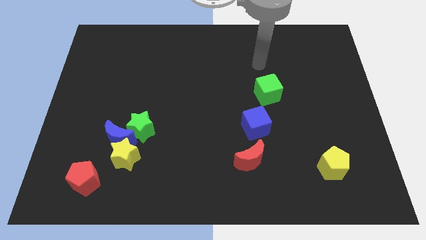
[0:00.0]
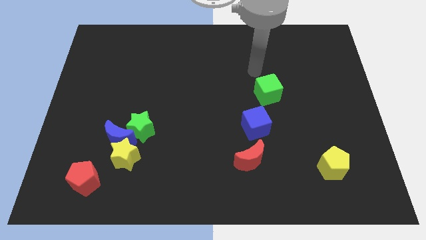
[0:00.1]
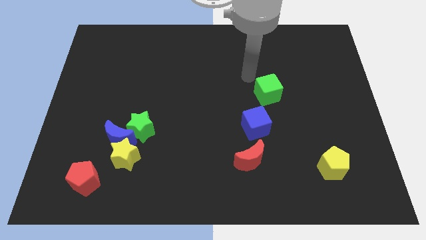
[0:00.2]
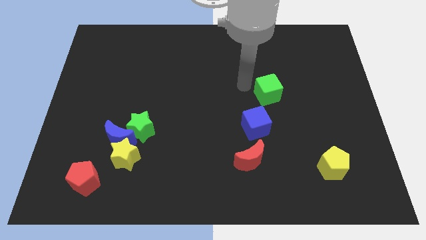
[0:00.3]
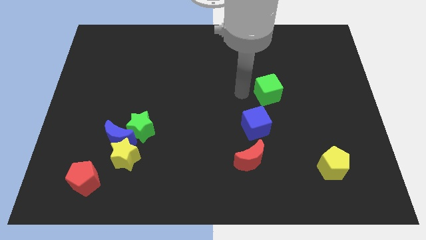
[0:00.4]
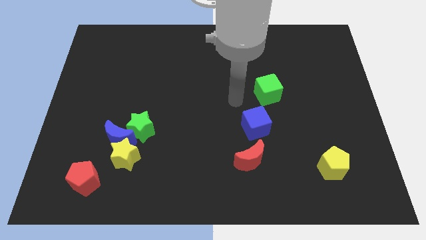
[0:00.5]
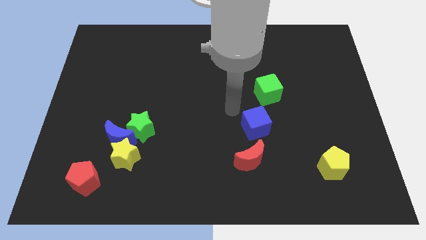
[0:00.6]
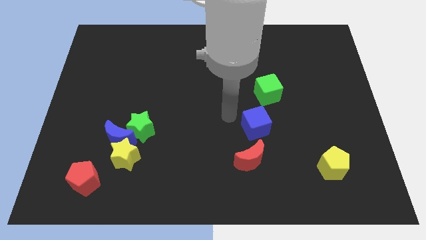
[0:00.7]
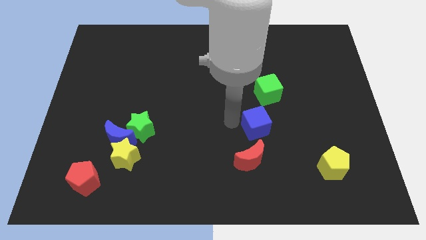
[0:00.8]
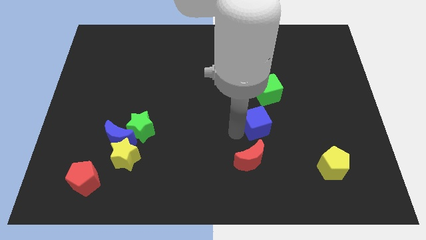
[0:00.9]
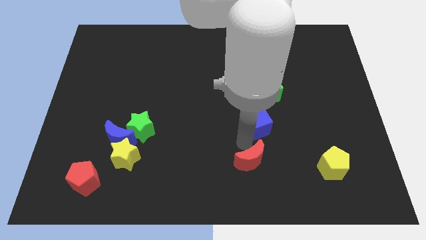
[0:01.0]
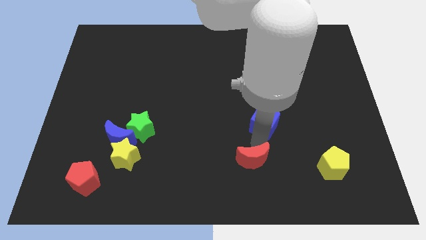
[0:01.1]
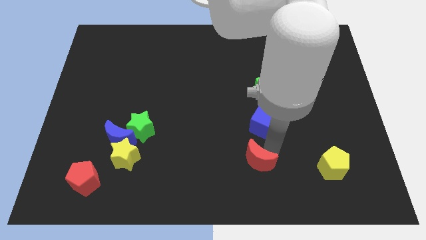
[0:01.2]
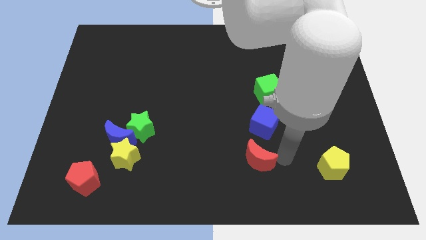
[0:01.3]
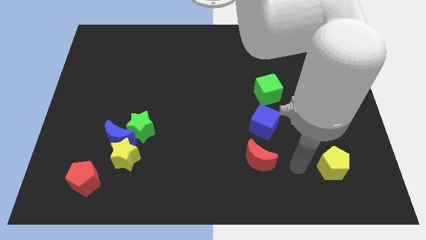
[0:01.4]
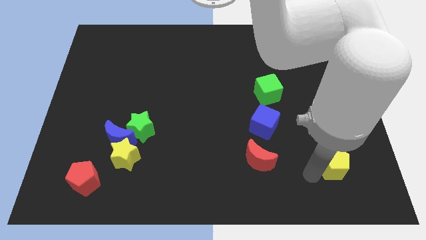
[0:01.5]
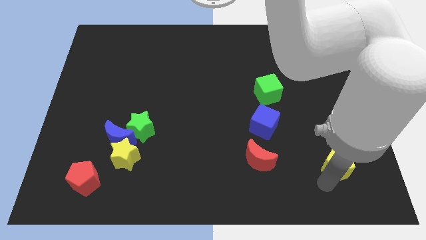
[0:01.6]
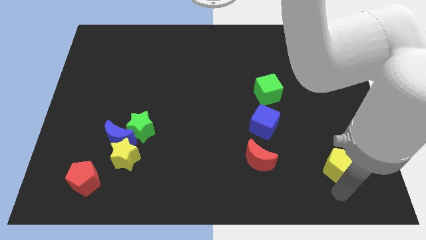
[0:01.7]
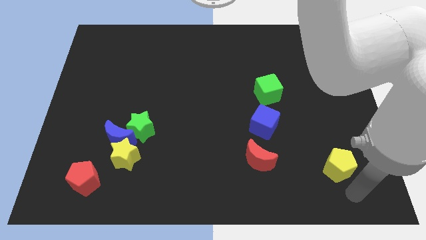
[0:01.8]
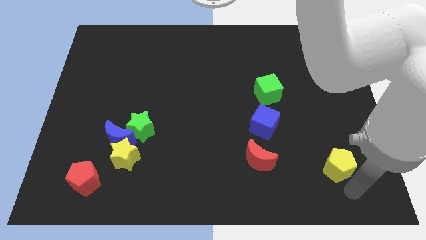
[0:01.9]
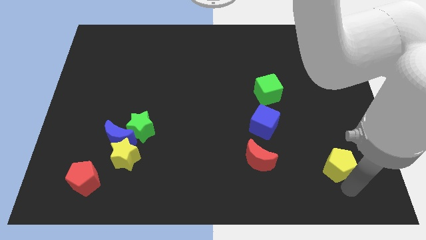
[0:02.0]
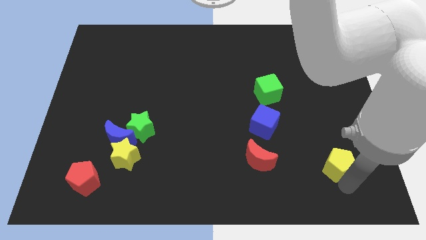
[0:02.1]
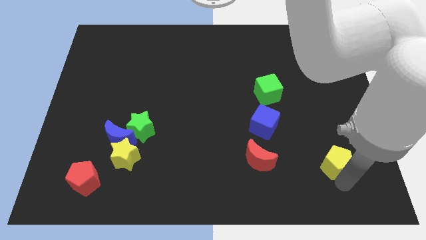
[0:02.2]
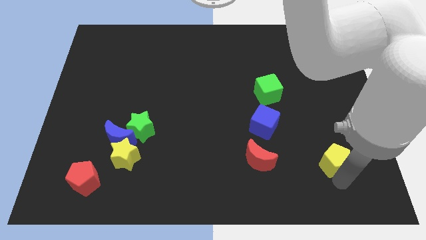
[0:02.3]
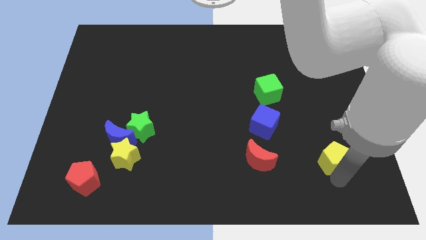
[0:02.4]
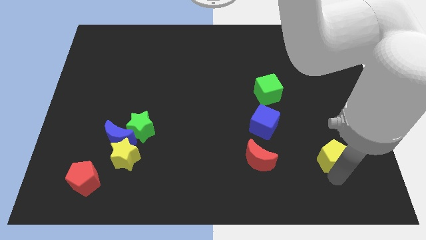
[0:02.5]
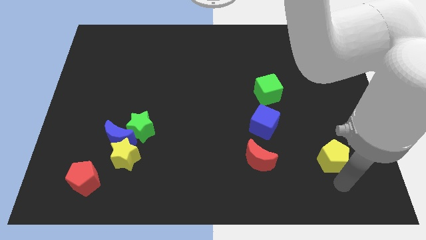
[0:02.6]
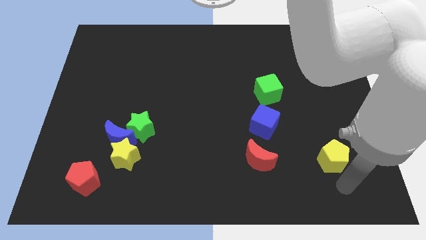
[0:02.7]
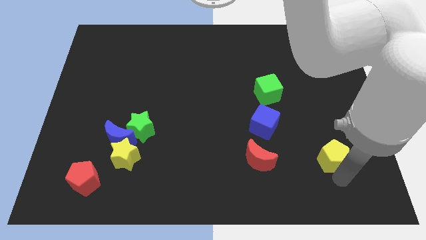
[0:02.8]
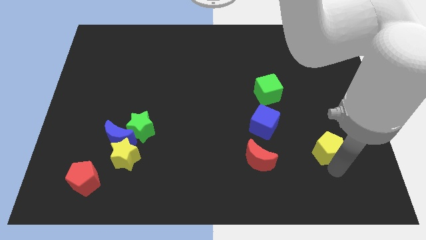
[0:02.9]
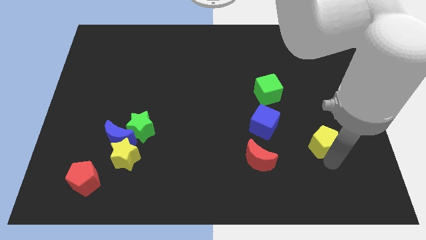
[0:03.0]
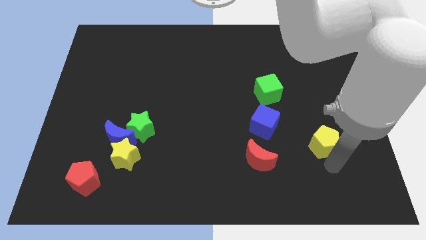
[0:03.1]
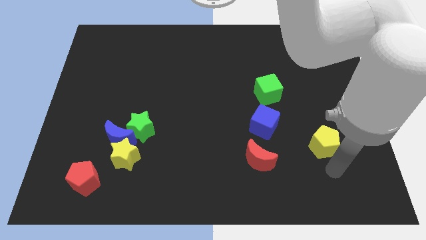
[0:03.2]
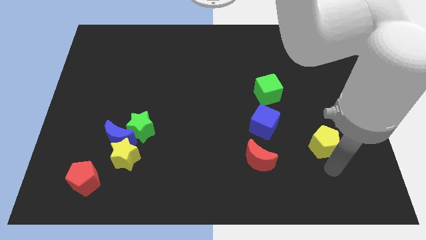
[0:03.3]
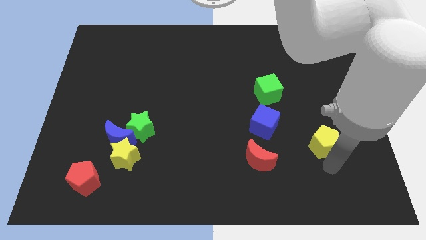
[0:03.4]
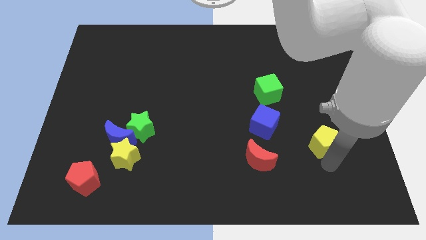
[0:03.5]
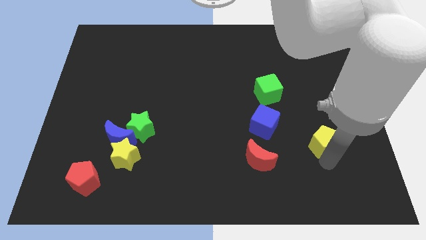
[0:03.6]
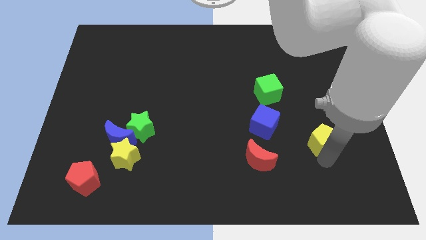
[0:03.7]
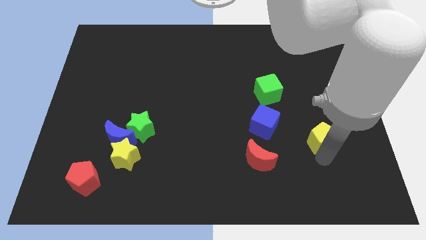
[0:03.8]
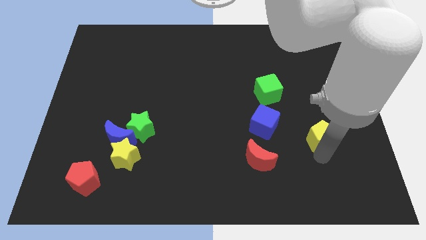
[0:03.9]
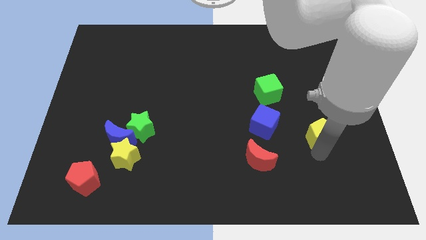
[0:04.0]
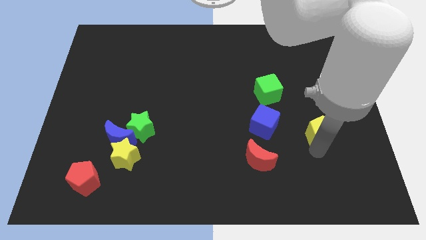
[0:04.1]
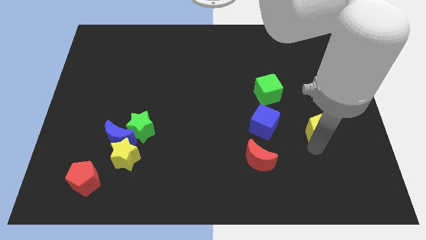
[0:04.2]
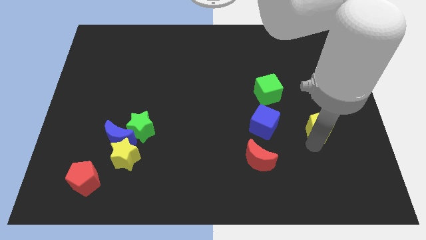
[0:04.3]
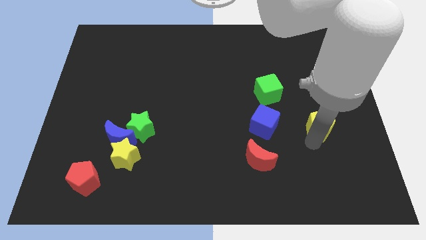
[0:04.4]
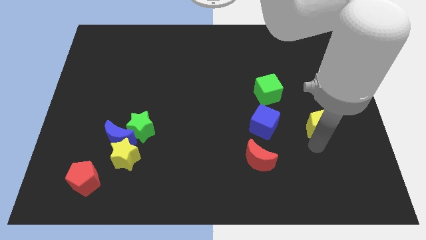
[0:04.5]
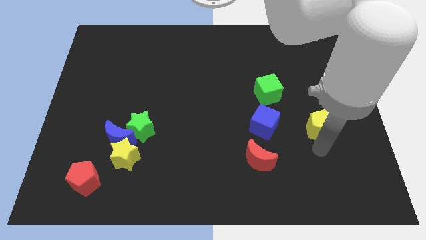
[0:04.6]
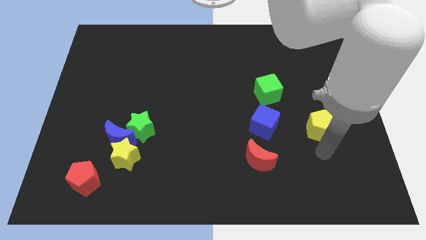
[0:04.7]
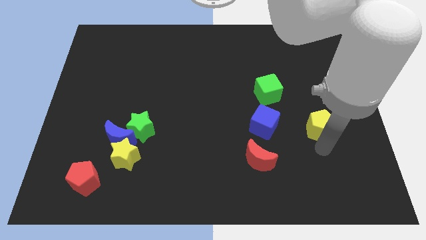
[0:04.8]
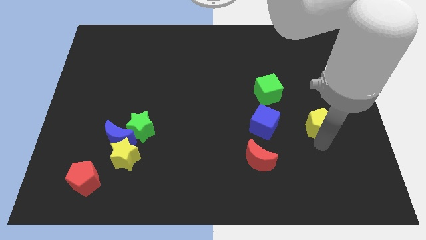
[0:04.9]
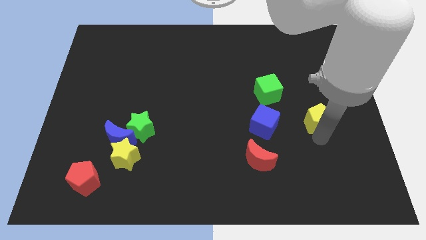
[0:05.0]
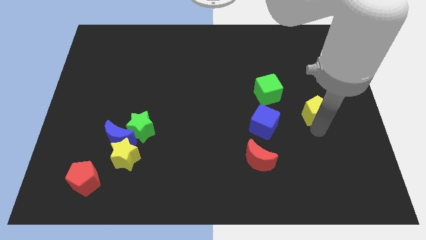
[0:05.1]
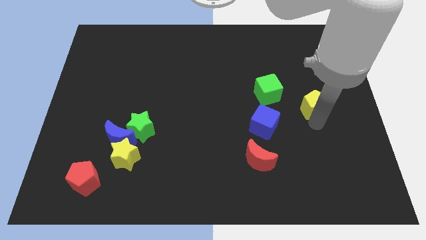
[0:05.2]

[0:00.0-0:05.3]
slide the yellow pentagon to the right of the green cube

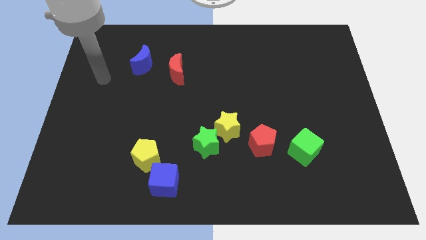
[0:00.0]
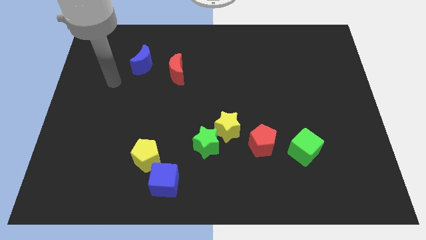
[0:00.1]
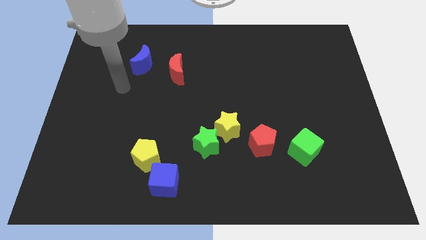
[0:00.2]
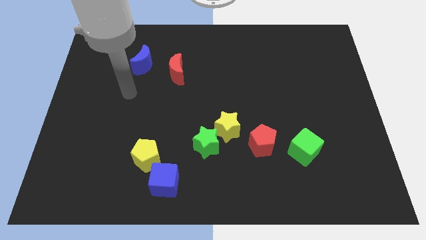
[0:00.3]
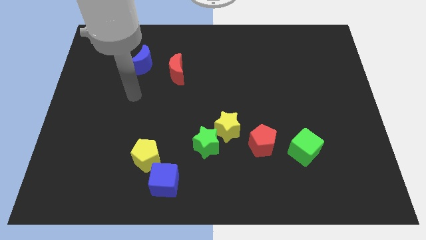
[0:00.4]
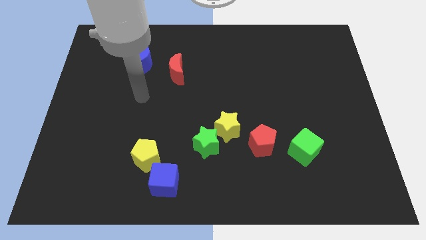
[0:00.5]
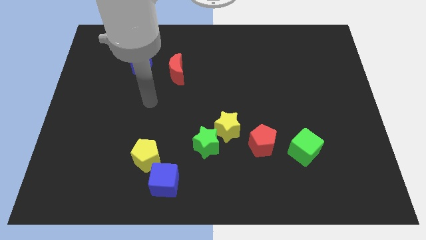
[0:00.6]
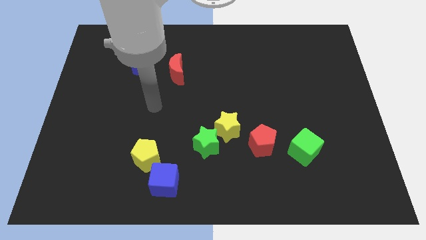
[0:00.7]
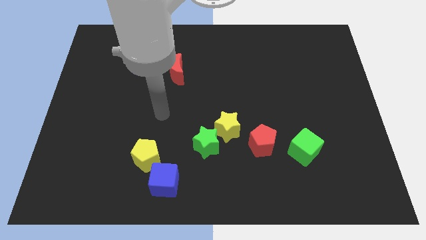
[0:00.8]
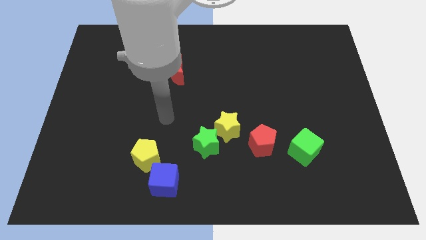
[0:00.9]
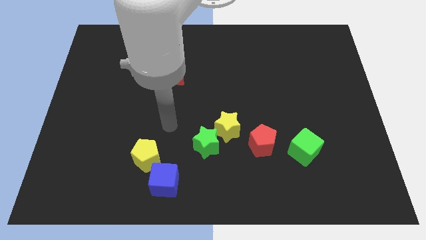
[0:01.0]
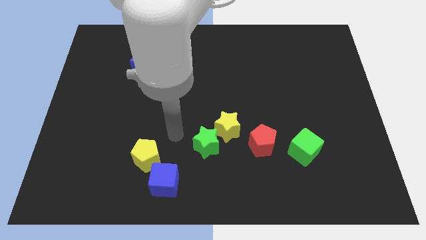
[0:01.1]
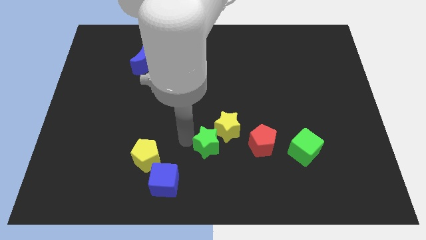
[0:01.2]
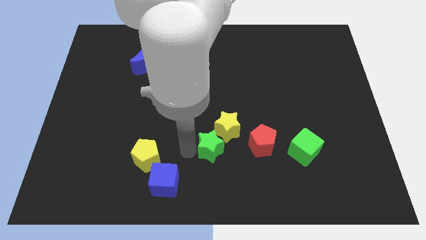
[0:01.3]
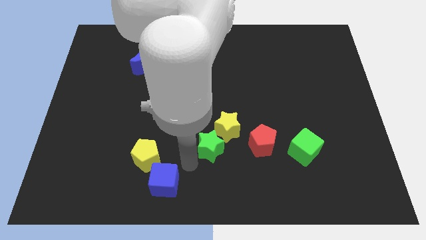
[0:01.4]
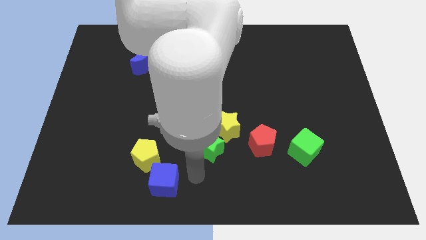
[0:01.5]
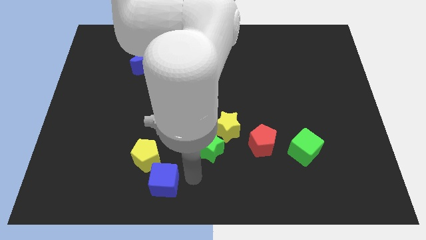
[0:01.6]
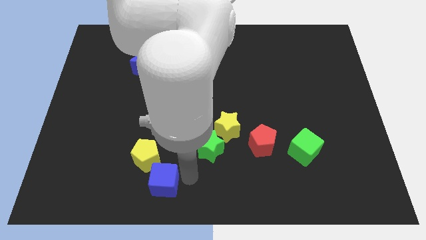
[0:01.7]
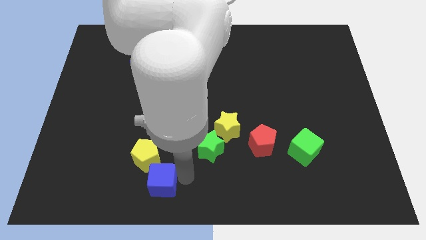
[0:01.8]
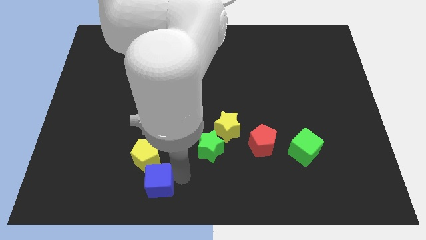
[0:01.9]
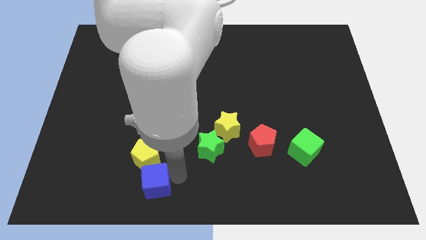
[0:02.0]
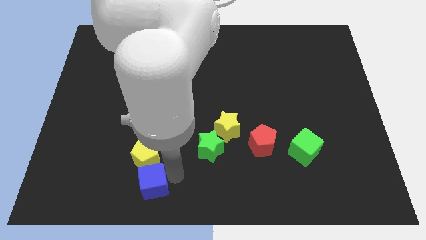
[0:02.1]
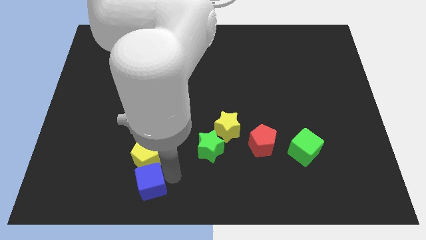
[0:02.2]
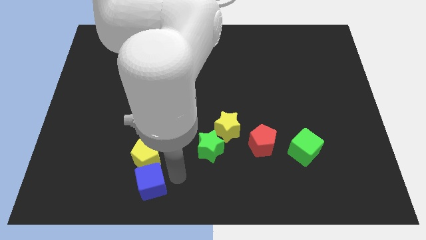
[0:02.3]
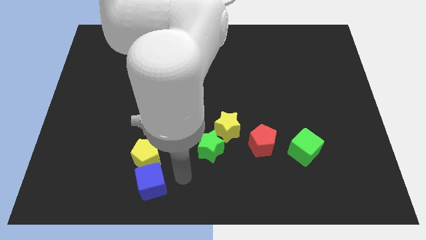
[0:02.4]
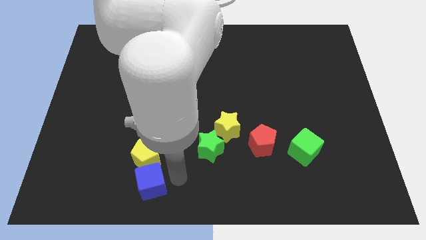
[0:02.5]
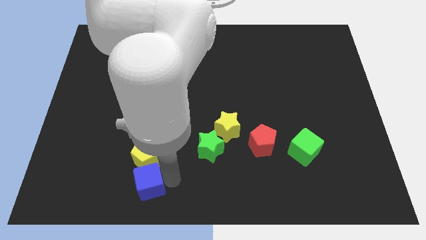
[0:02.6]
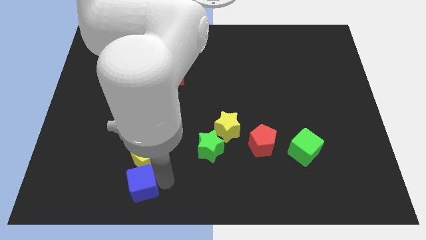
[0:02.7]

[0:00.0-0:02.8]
put the blue cube diagonally down and to the left of the yellow pentagon
